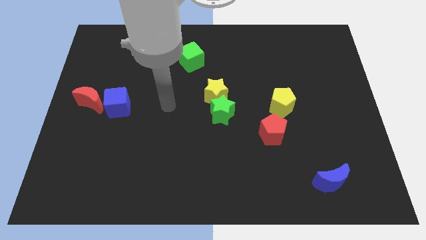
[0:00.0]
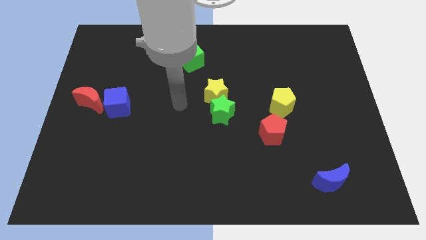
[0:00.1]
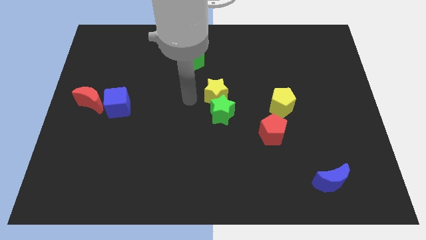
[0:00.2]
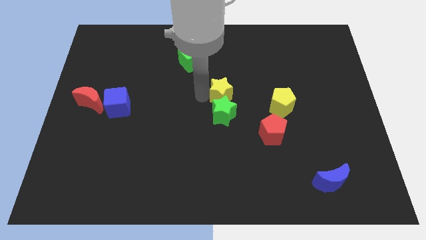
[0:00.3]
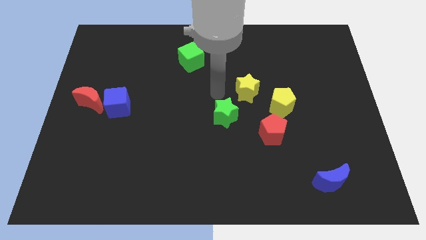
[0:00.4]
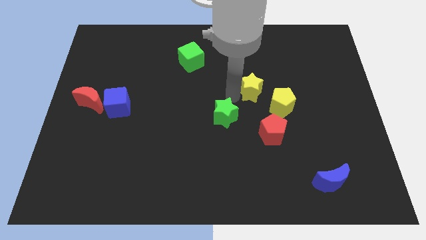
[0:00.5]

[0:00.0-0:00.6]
pull the green star apart from the yellow star

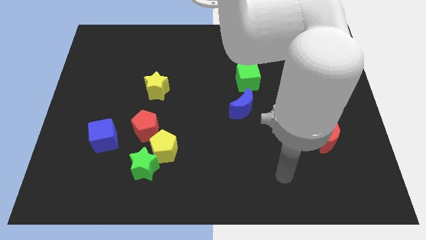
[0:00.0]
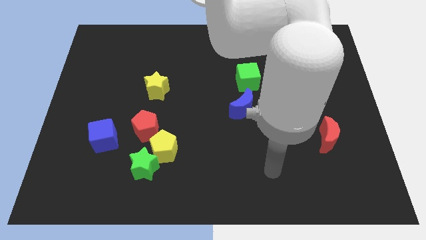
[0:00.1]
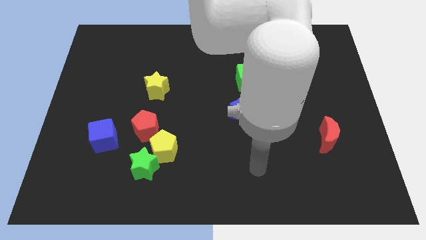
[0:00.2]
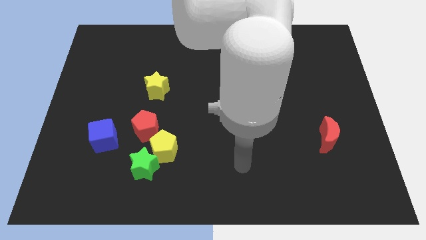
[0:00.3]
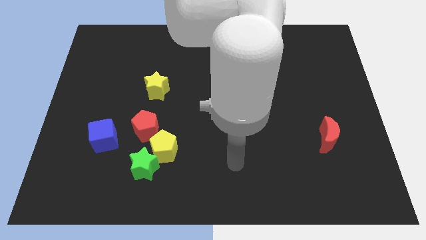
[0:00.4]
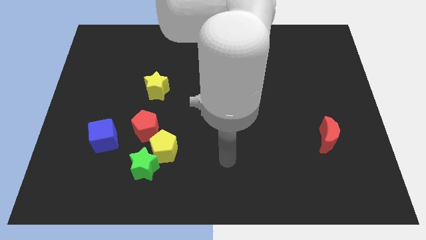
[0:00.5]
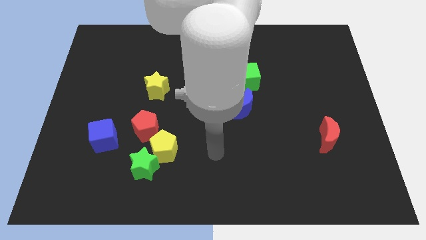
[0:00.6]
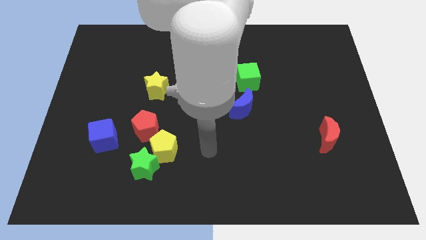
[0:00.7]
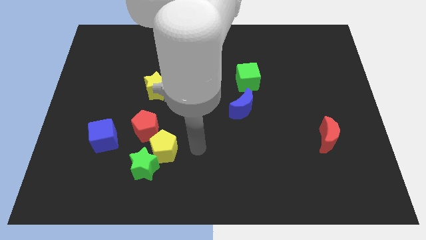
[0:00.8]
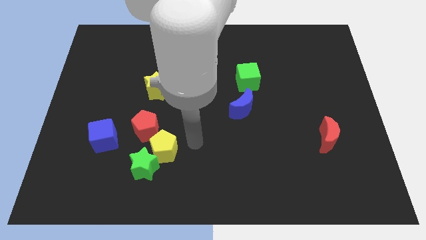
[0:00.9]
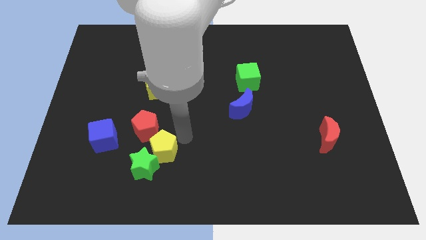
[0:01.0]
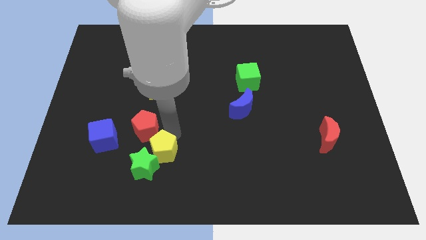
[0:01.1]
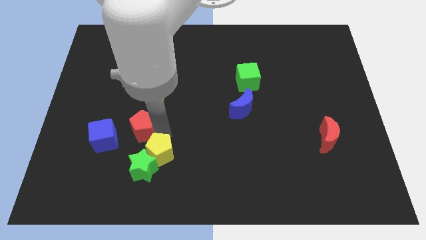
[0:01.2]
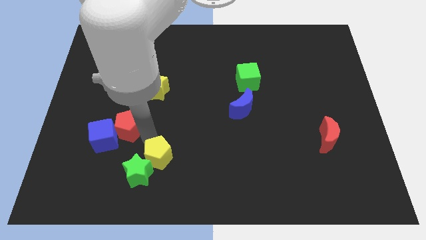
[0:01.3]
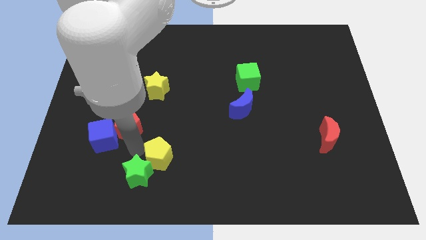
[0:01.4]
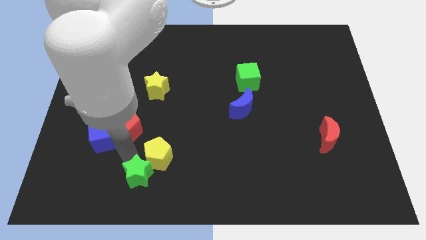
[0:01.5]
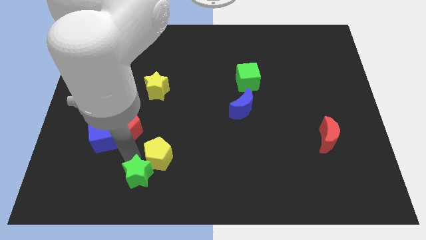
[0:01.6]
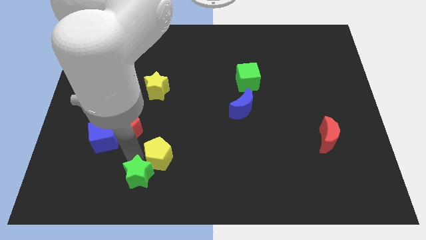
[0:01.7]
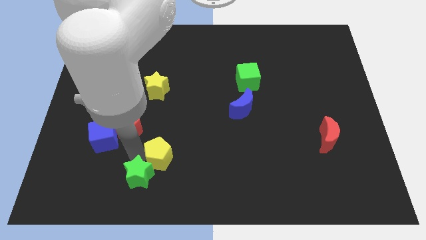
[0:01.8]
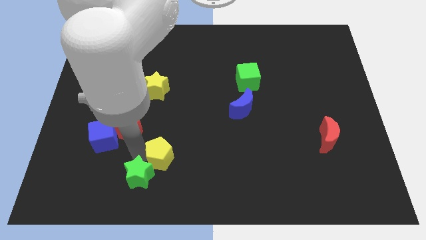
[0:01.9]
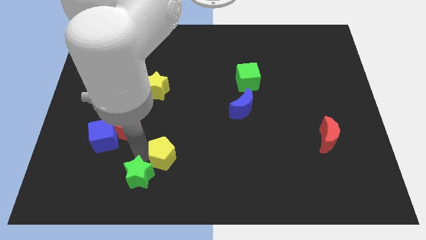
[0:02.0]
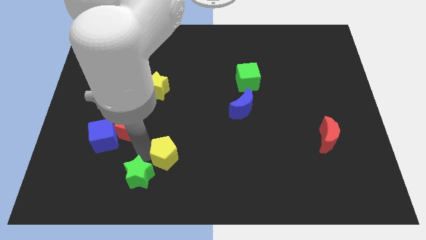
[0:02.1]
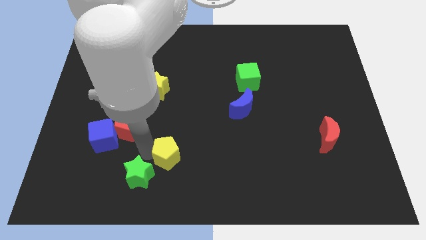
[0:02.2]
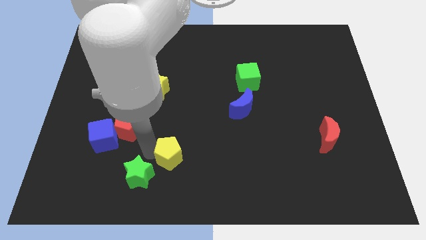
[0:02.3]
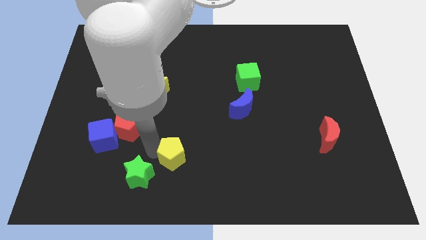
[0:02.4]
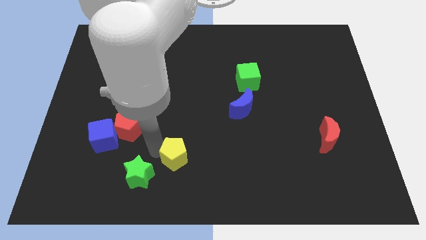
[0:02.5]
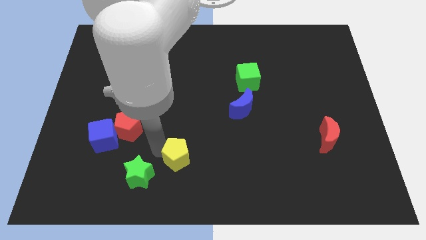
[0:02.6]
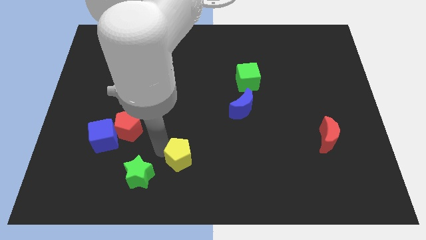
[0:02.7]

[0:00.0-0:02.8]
pull the yellow pentagon apart from the green star and red pentagon

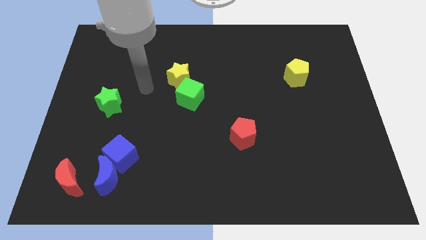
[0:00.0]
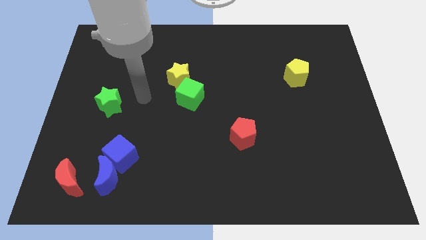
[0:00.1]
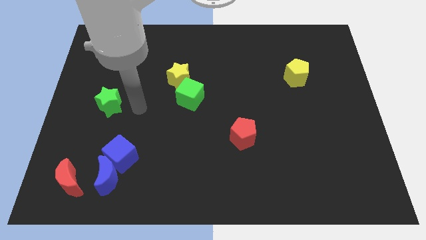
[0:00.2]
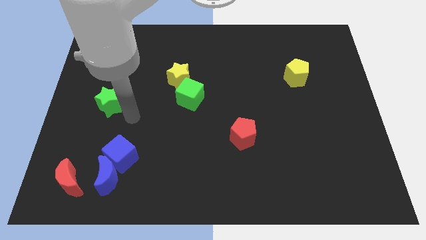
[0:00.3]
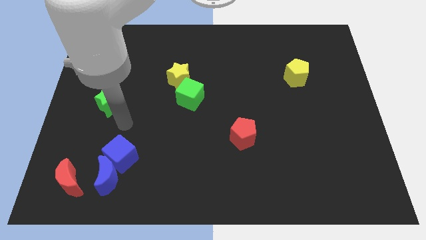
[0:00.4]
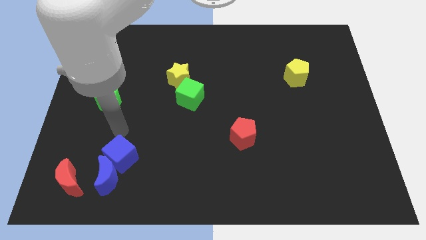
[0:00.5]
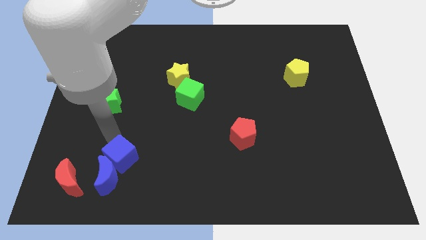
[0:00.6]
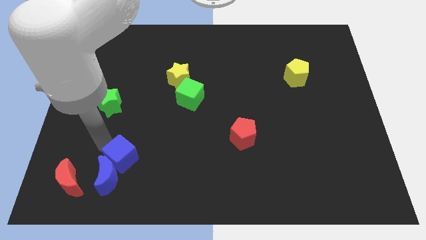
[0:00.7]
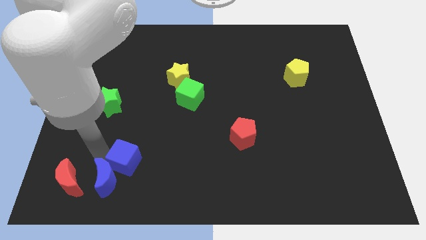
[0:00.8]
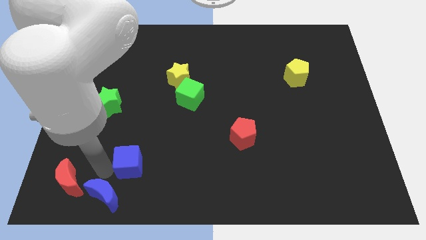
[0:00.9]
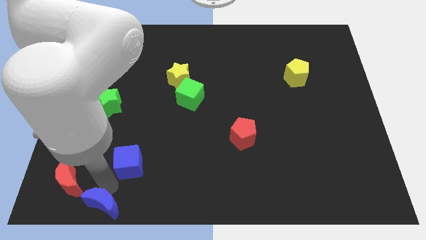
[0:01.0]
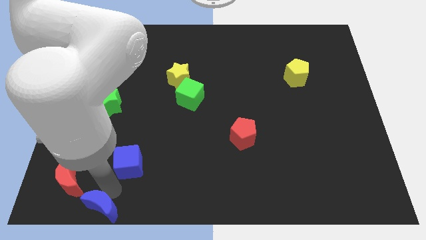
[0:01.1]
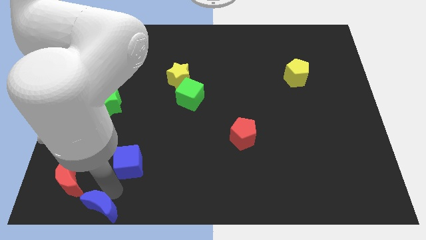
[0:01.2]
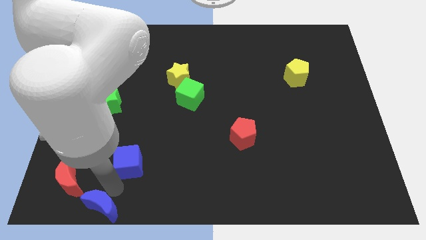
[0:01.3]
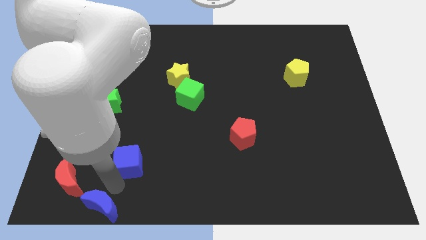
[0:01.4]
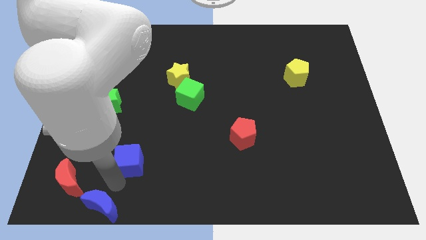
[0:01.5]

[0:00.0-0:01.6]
separate the blue cube from the blue moon

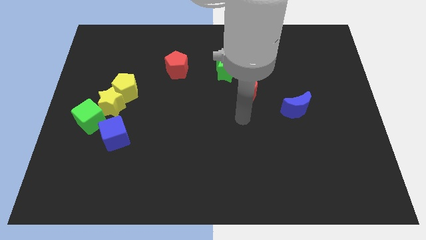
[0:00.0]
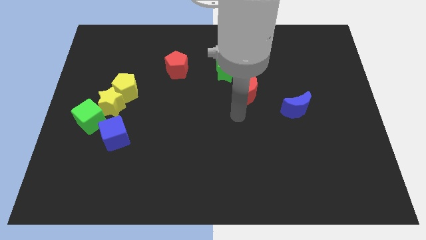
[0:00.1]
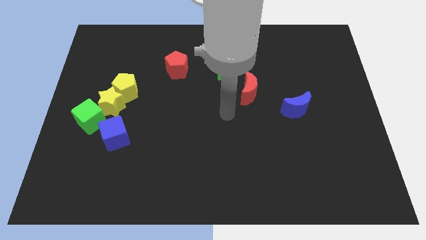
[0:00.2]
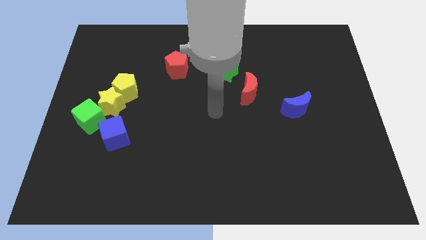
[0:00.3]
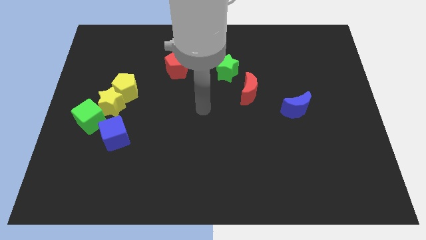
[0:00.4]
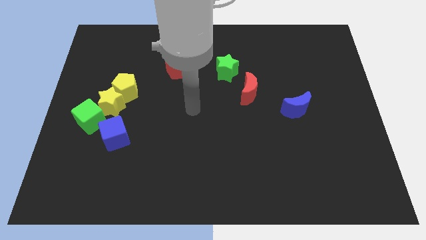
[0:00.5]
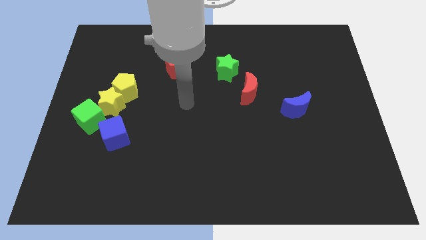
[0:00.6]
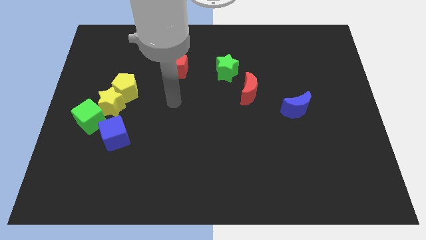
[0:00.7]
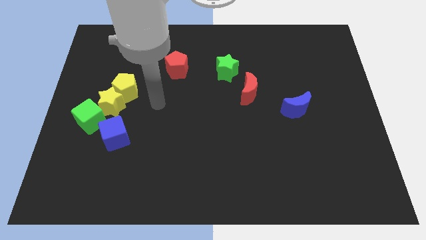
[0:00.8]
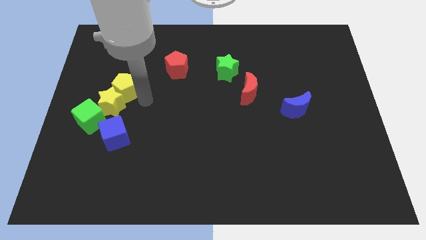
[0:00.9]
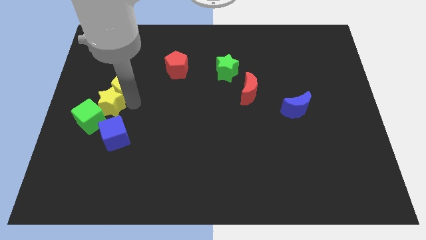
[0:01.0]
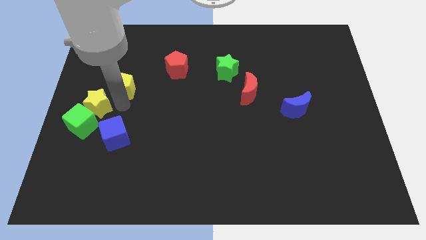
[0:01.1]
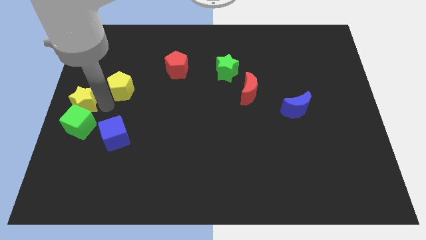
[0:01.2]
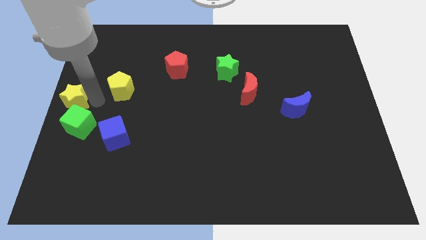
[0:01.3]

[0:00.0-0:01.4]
pull the yellow pentagon apart from the yellow star

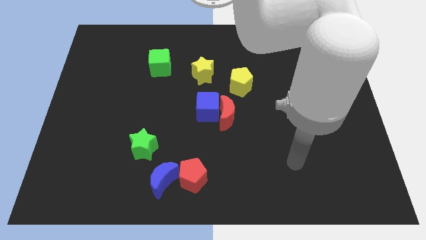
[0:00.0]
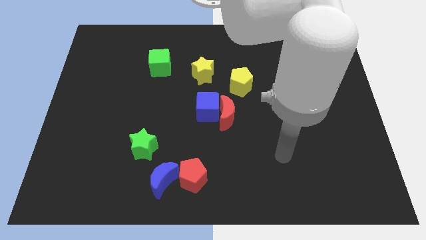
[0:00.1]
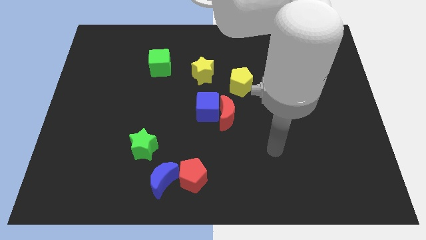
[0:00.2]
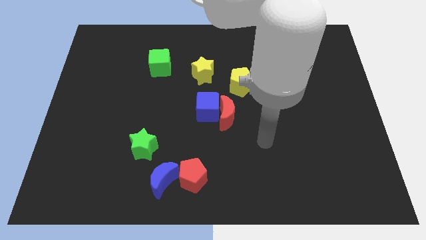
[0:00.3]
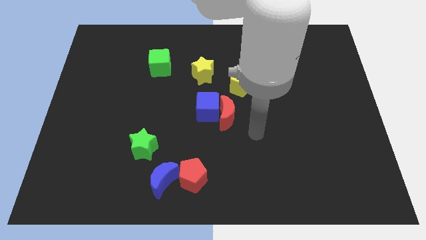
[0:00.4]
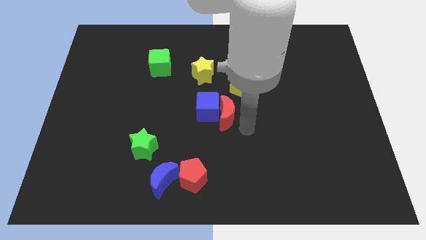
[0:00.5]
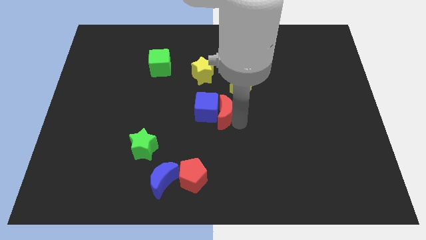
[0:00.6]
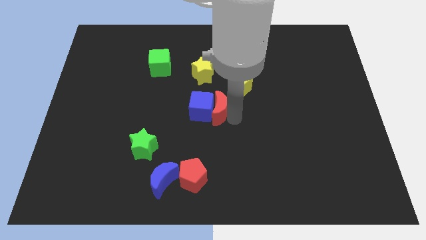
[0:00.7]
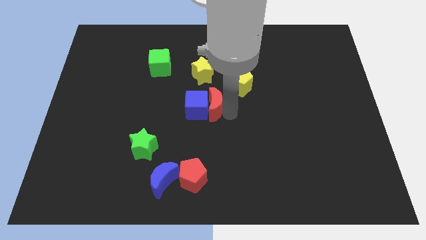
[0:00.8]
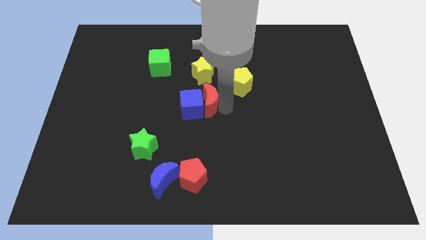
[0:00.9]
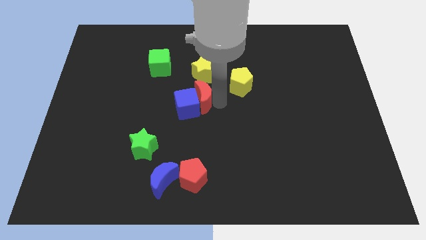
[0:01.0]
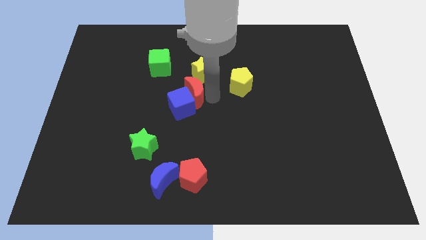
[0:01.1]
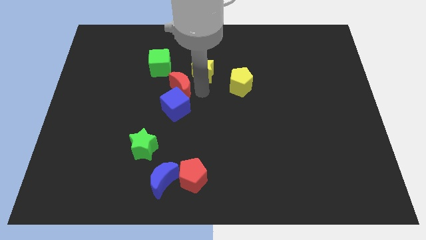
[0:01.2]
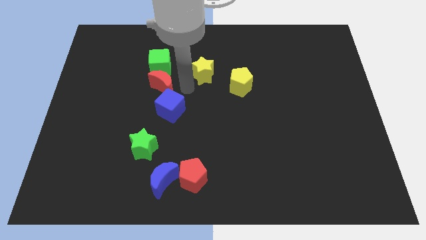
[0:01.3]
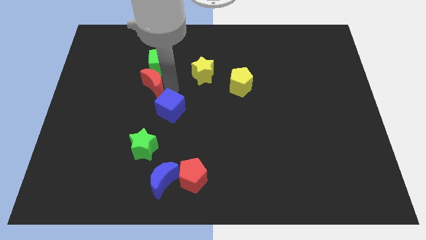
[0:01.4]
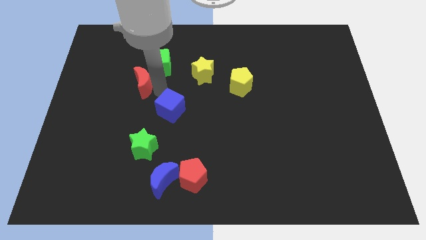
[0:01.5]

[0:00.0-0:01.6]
move the blue cube away from the red moon

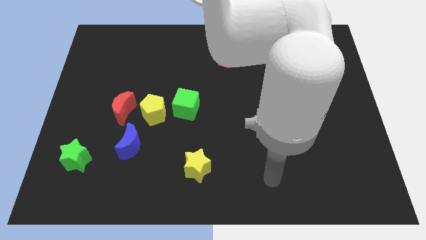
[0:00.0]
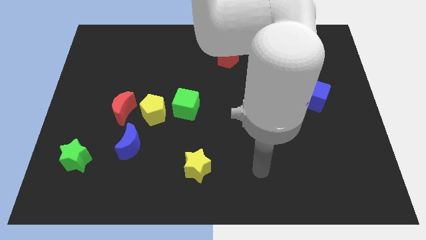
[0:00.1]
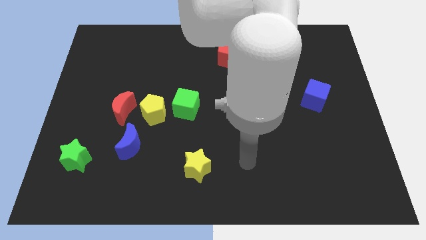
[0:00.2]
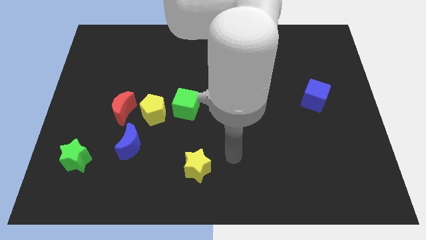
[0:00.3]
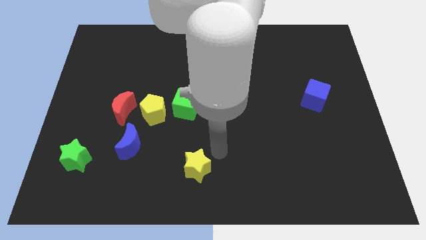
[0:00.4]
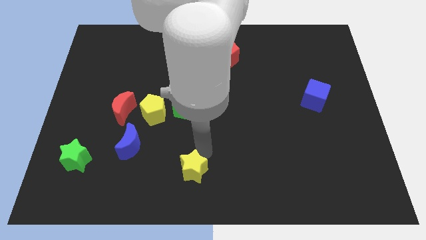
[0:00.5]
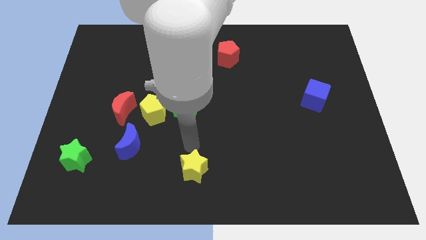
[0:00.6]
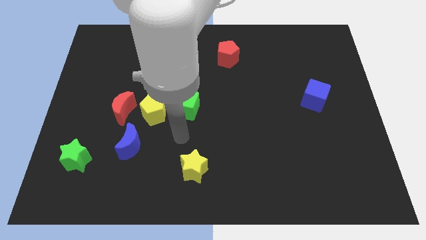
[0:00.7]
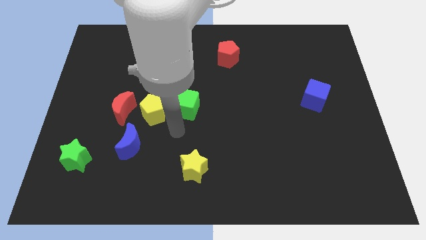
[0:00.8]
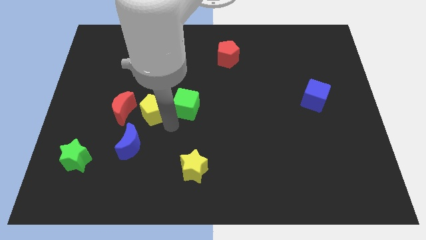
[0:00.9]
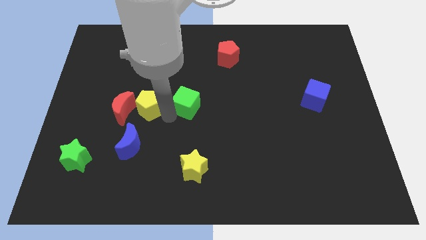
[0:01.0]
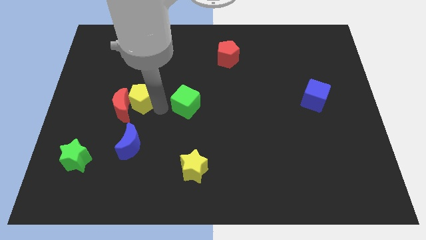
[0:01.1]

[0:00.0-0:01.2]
move the green cube away from the yellow pentagon
